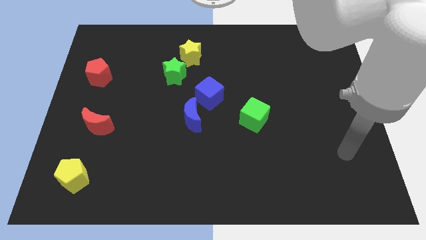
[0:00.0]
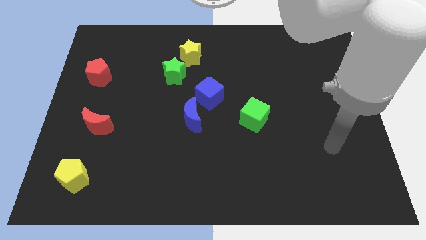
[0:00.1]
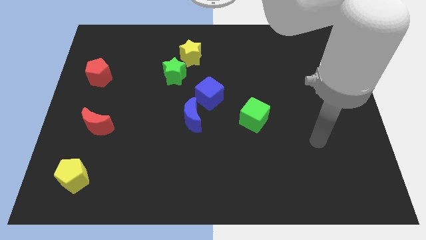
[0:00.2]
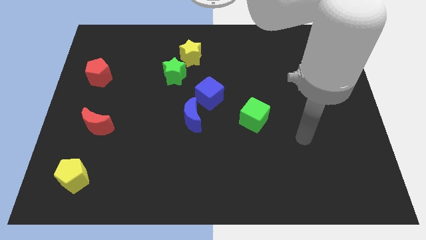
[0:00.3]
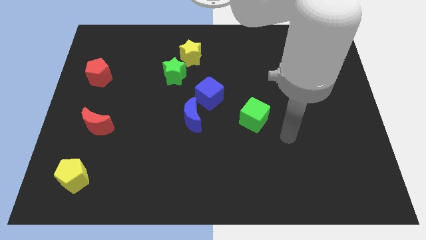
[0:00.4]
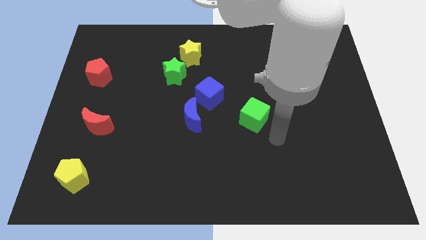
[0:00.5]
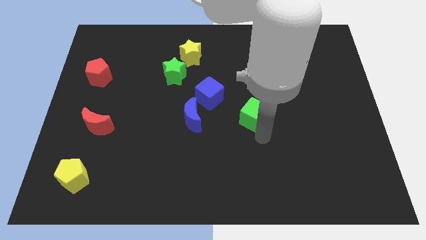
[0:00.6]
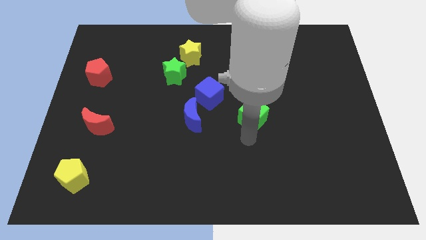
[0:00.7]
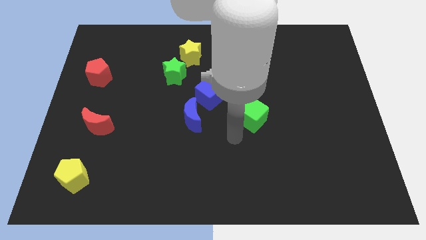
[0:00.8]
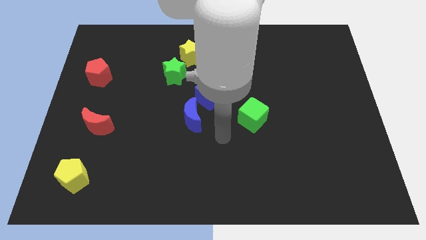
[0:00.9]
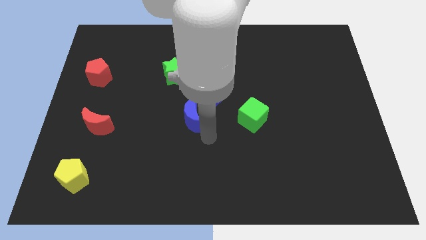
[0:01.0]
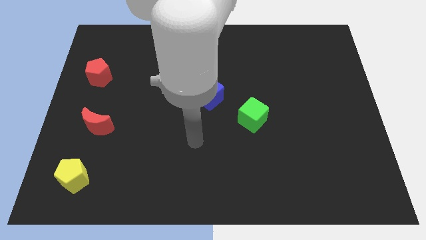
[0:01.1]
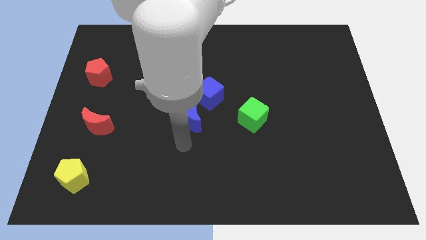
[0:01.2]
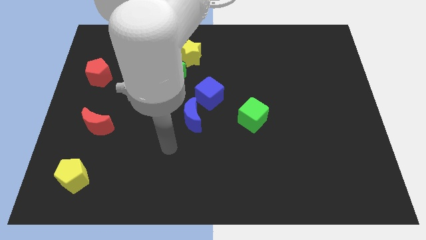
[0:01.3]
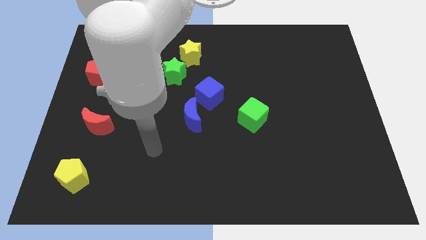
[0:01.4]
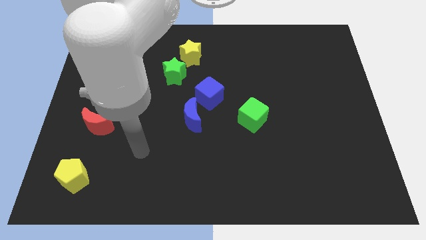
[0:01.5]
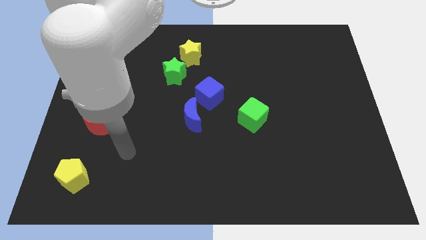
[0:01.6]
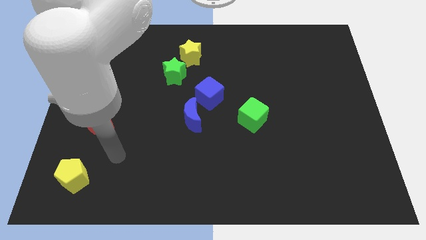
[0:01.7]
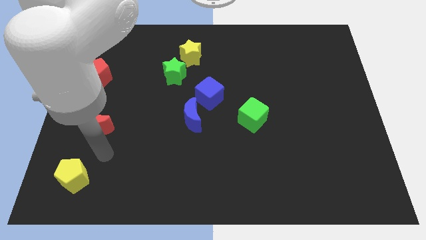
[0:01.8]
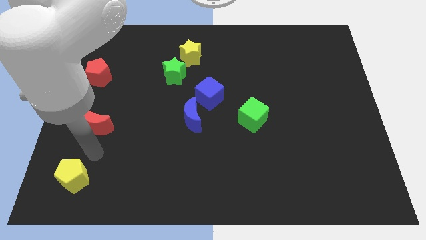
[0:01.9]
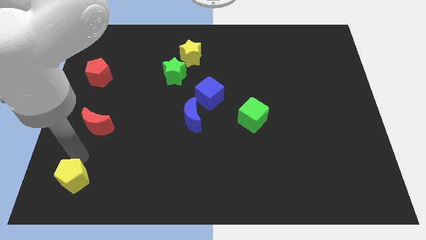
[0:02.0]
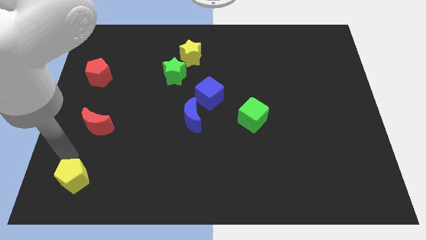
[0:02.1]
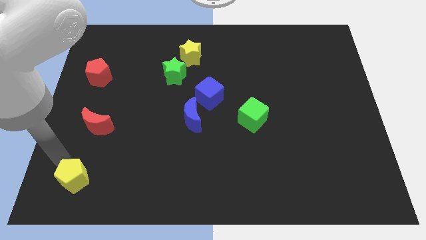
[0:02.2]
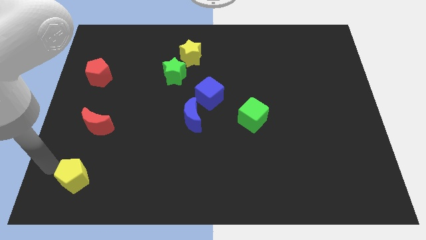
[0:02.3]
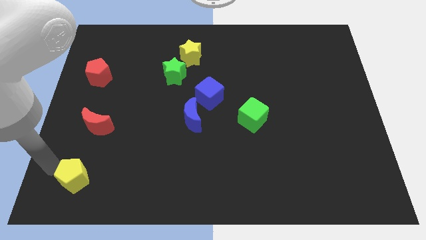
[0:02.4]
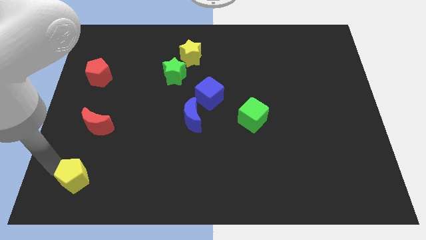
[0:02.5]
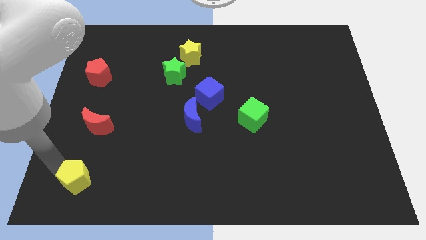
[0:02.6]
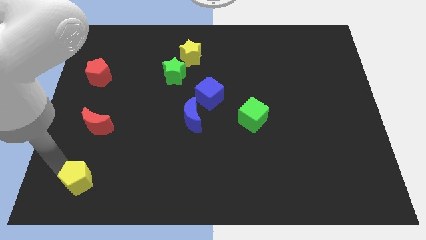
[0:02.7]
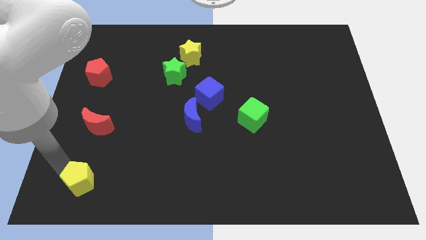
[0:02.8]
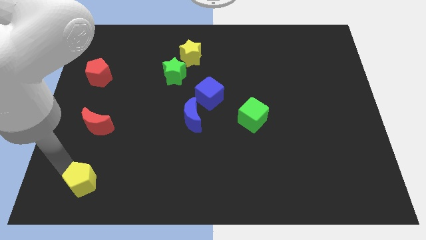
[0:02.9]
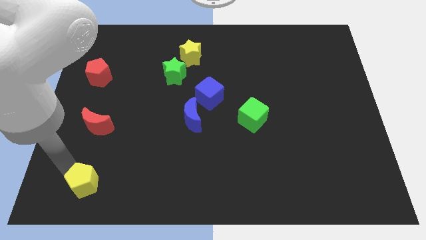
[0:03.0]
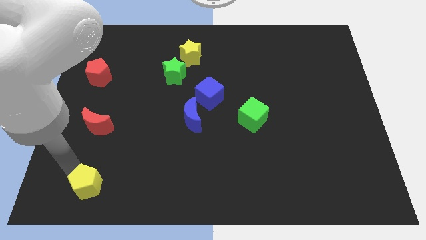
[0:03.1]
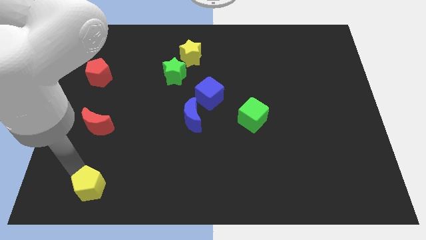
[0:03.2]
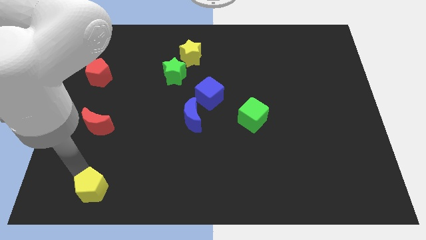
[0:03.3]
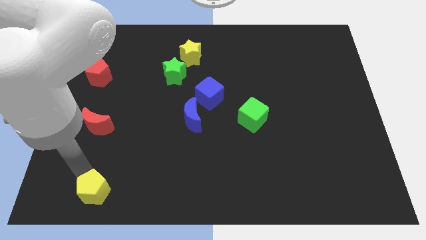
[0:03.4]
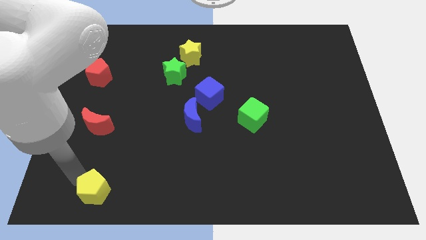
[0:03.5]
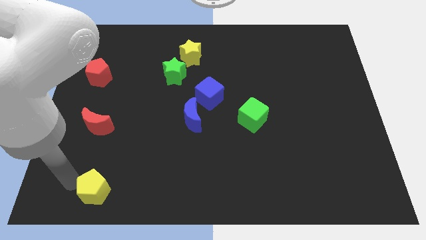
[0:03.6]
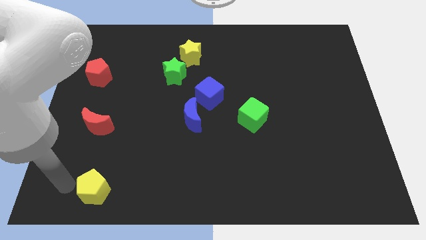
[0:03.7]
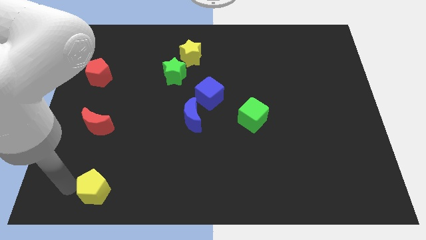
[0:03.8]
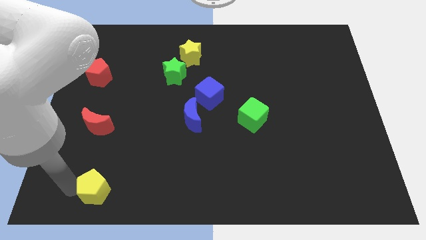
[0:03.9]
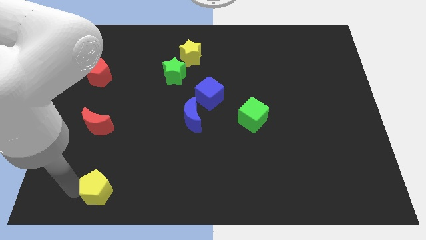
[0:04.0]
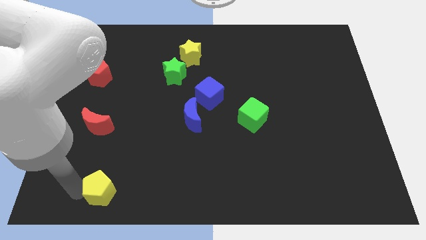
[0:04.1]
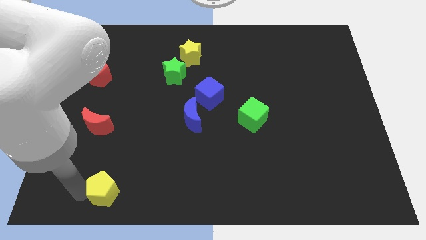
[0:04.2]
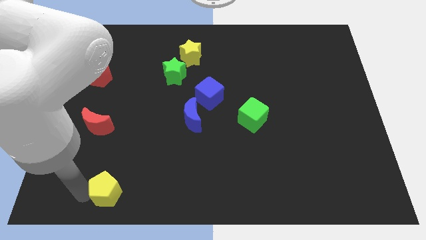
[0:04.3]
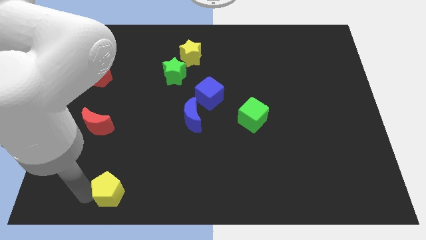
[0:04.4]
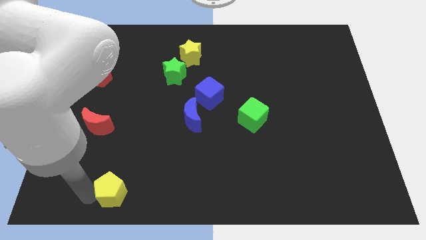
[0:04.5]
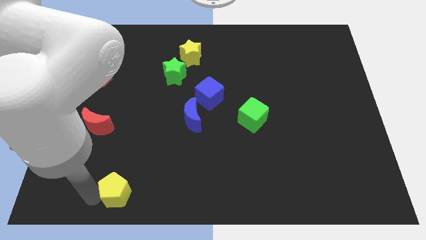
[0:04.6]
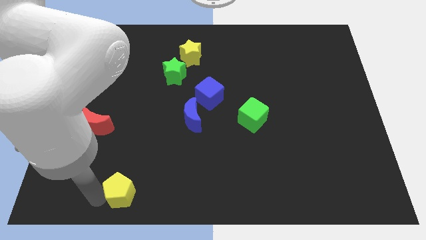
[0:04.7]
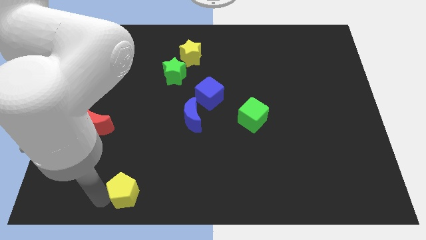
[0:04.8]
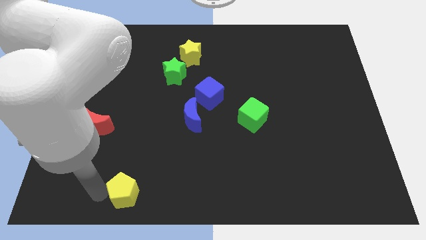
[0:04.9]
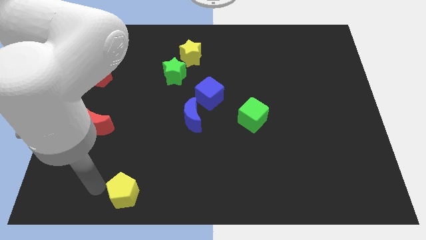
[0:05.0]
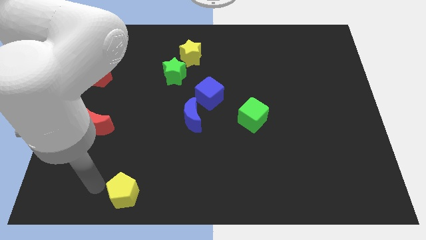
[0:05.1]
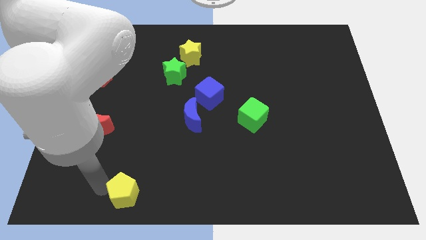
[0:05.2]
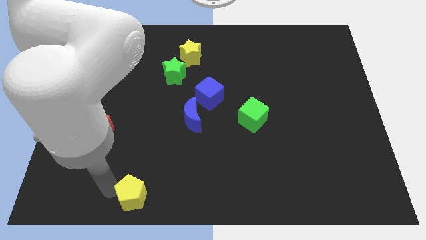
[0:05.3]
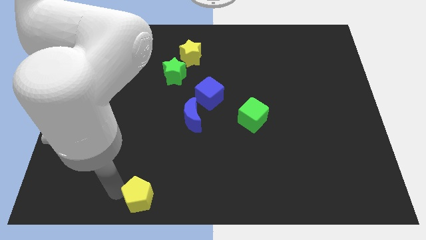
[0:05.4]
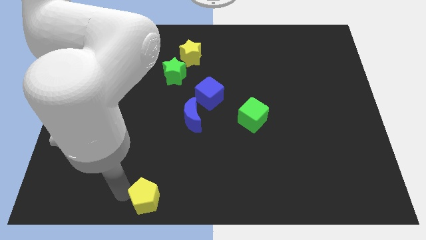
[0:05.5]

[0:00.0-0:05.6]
put the yellow pentagon to the bottom side

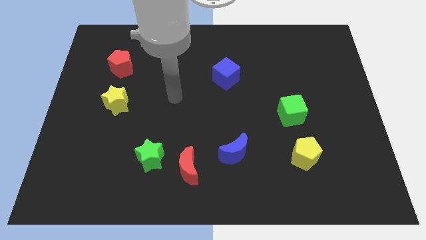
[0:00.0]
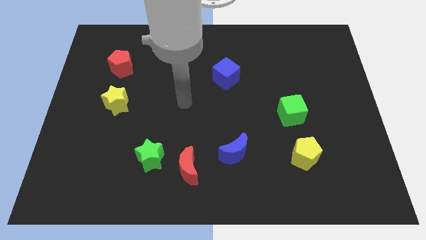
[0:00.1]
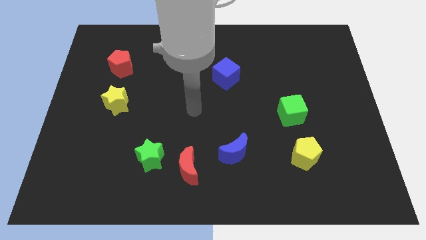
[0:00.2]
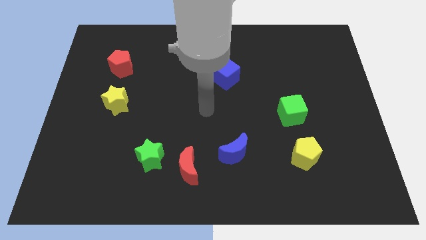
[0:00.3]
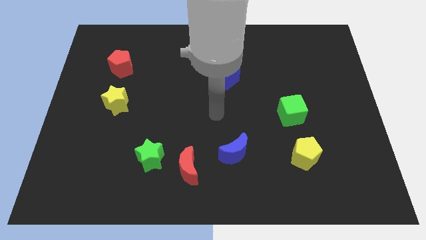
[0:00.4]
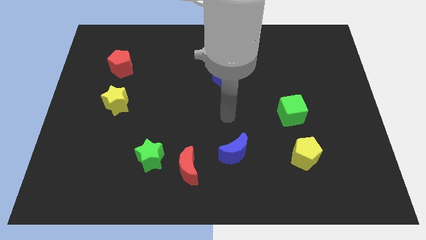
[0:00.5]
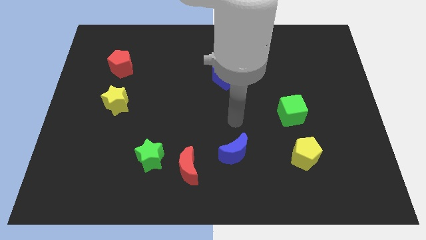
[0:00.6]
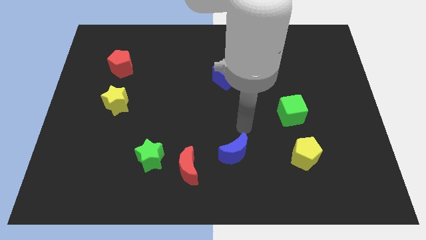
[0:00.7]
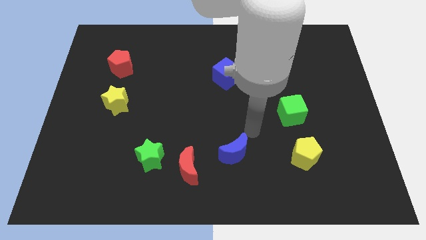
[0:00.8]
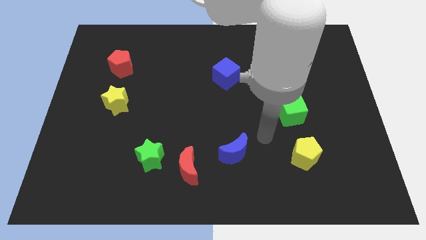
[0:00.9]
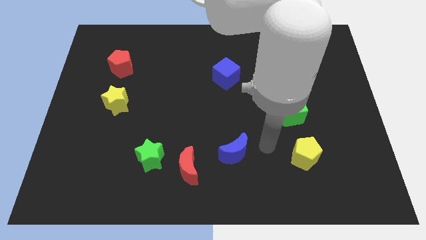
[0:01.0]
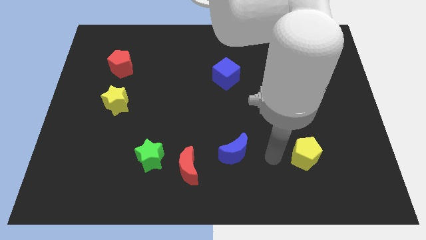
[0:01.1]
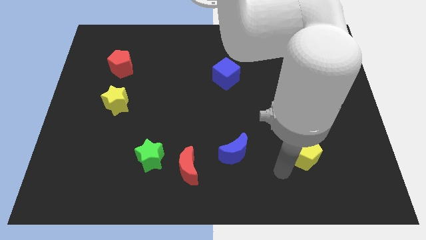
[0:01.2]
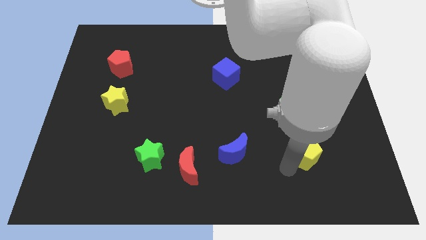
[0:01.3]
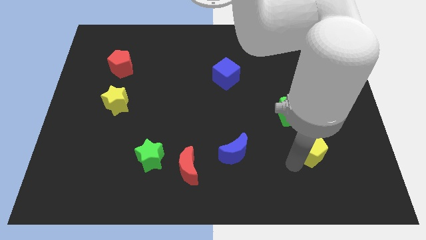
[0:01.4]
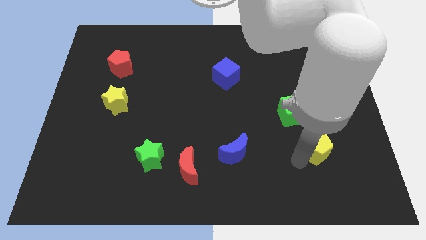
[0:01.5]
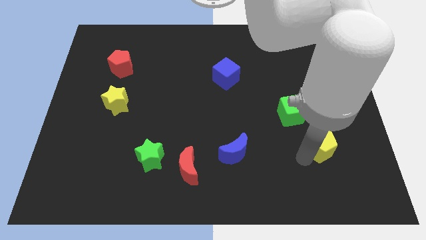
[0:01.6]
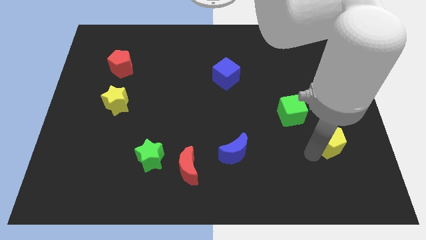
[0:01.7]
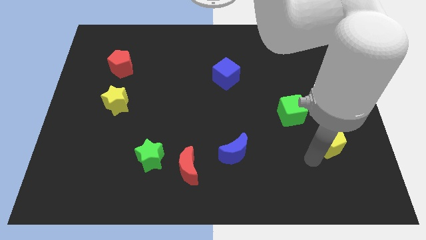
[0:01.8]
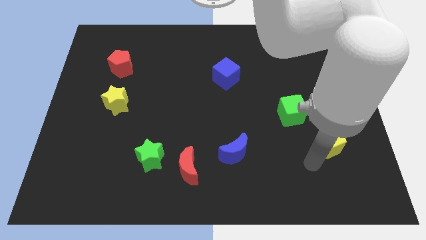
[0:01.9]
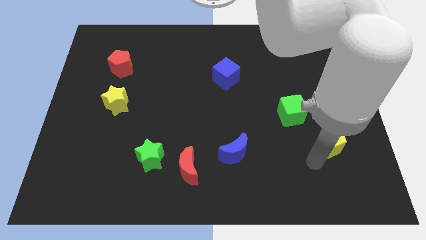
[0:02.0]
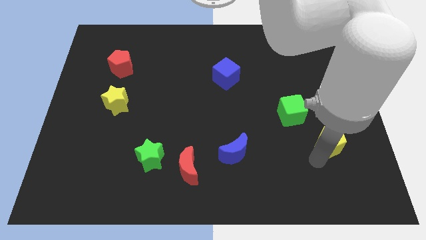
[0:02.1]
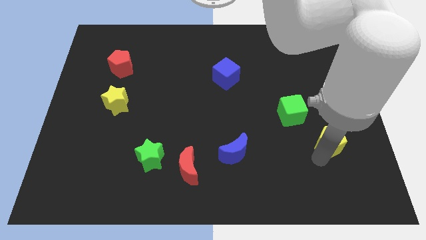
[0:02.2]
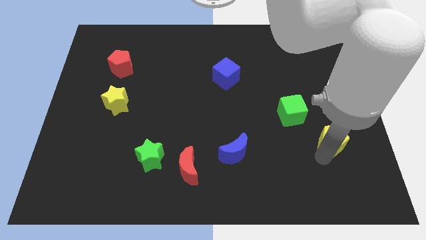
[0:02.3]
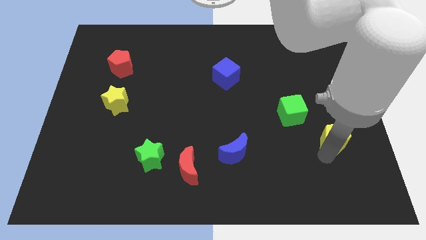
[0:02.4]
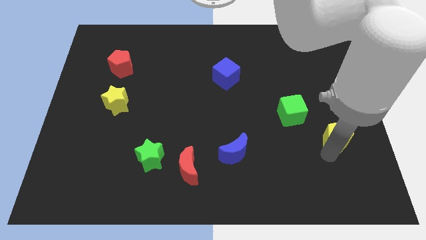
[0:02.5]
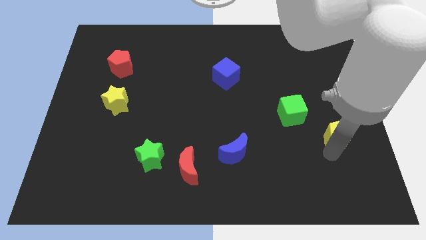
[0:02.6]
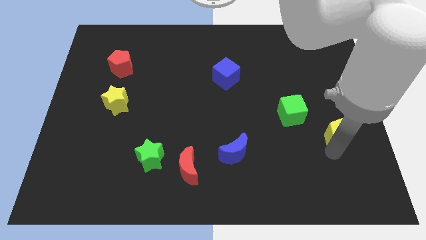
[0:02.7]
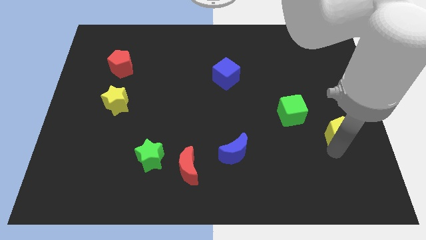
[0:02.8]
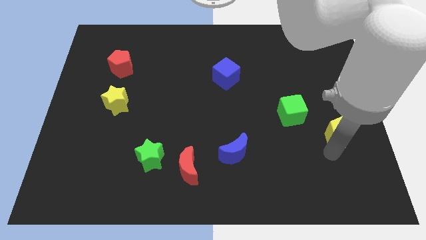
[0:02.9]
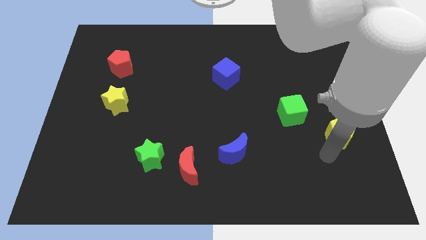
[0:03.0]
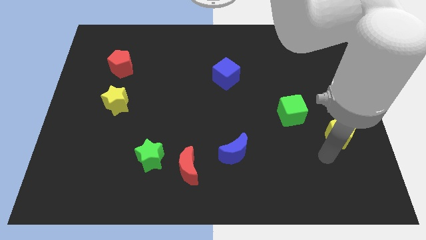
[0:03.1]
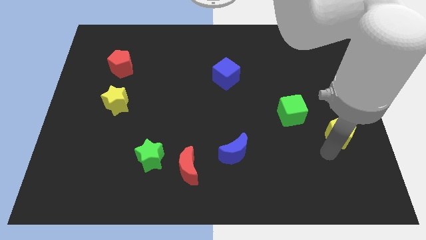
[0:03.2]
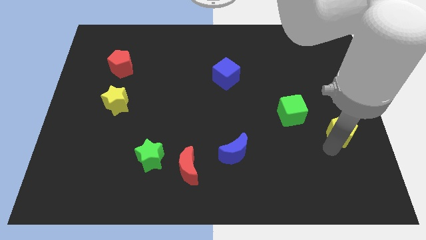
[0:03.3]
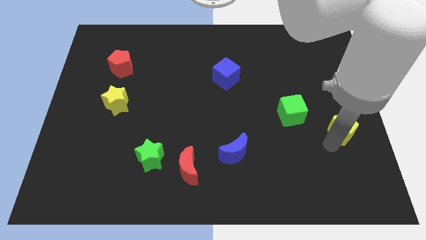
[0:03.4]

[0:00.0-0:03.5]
put the yellow pentagon to the center right
